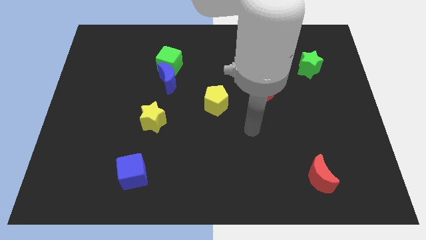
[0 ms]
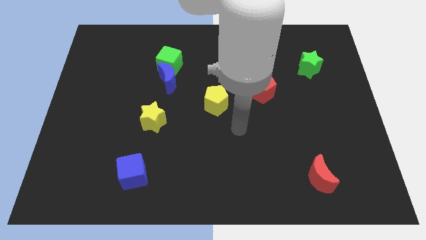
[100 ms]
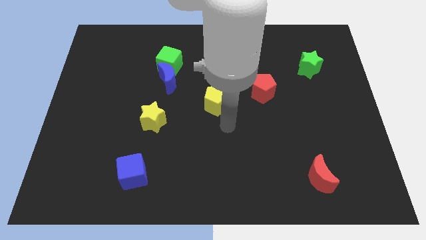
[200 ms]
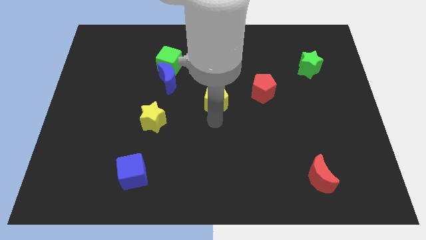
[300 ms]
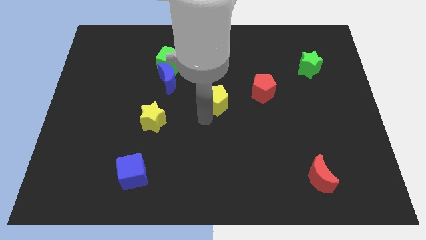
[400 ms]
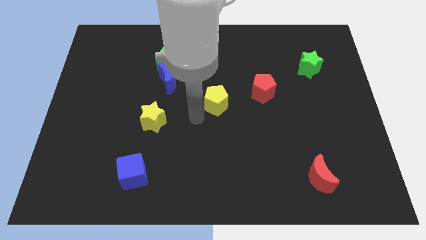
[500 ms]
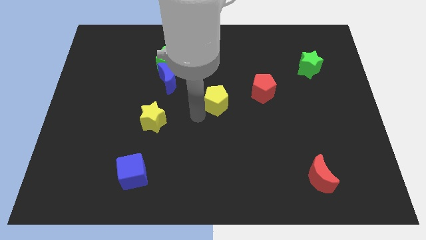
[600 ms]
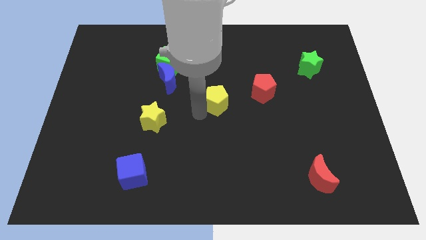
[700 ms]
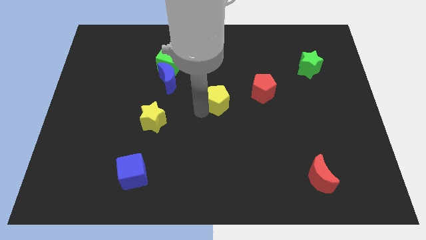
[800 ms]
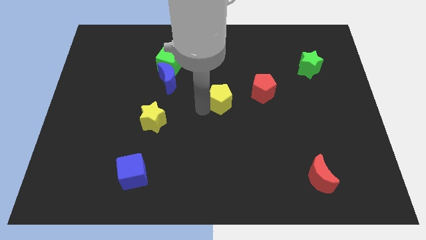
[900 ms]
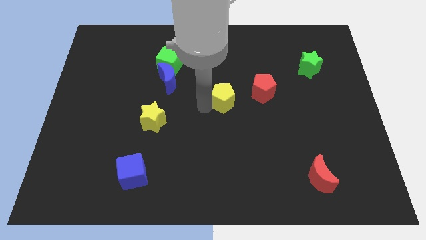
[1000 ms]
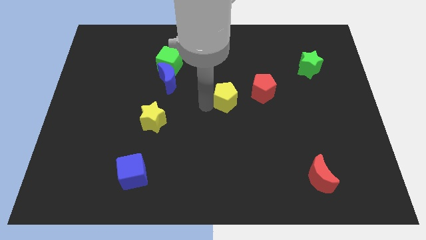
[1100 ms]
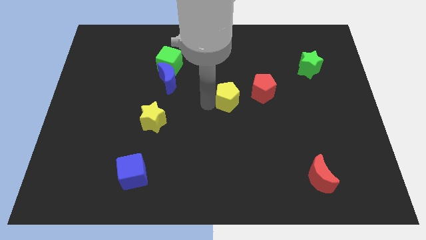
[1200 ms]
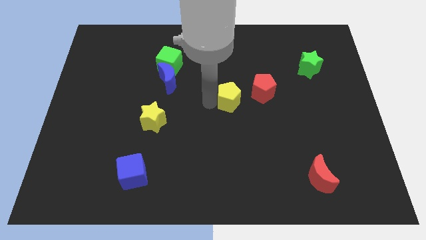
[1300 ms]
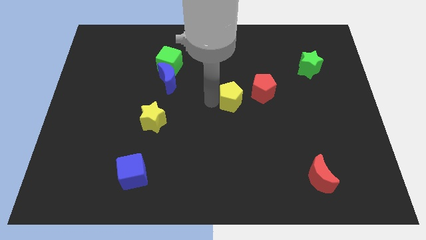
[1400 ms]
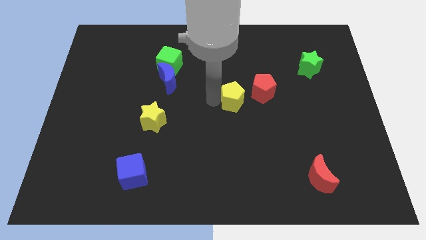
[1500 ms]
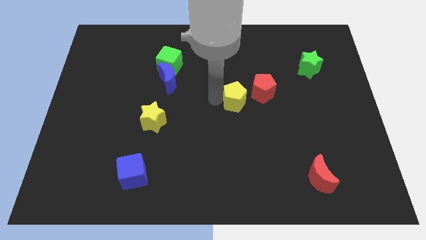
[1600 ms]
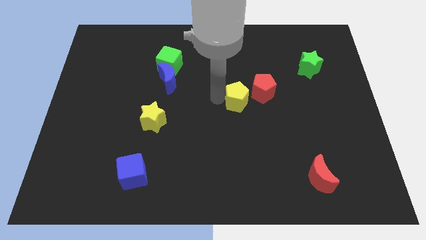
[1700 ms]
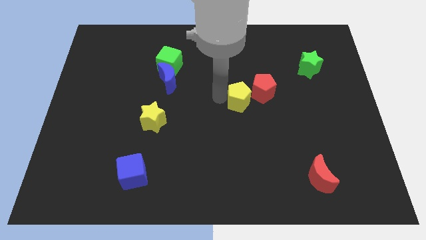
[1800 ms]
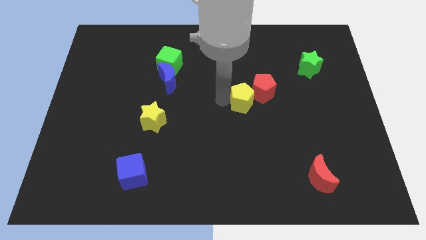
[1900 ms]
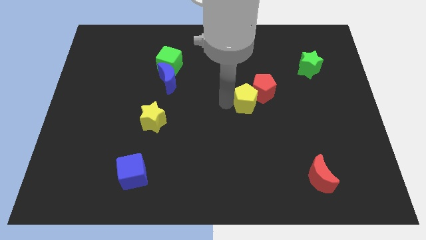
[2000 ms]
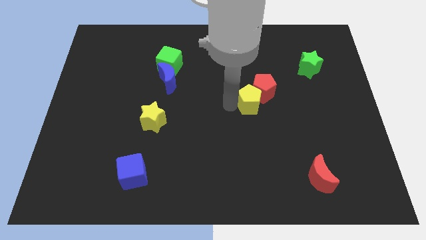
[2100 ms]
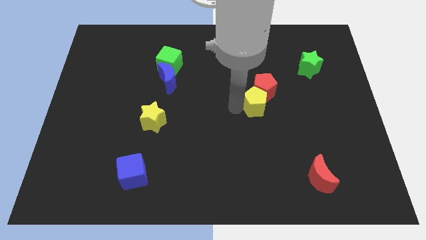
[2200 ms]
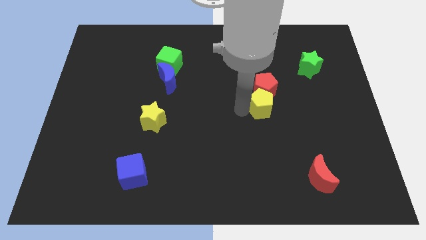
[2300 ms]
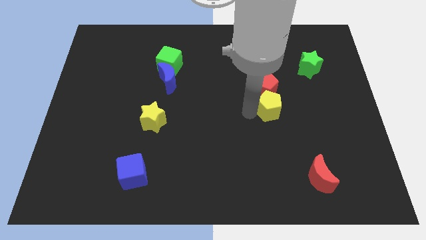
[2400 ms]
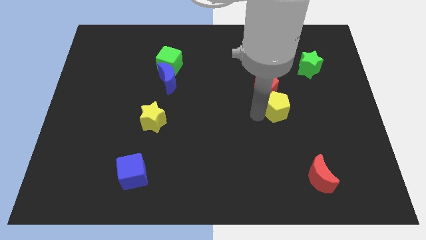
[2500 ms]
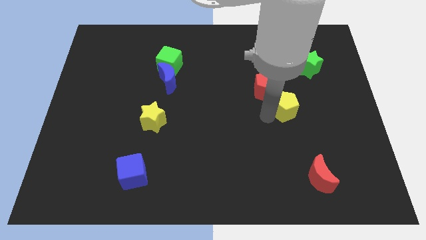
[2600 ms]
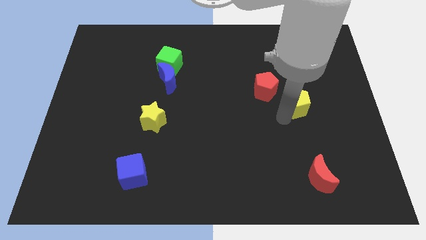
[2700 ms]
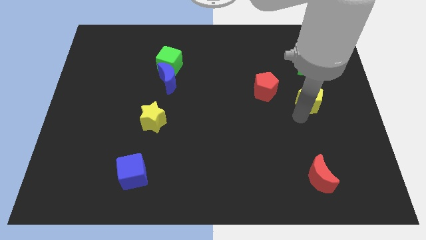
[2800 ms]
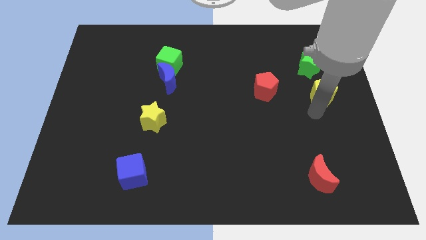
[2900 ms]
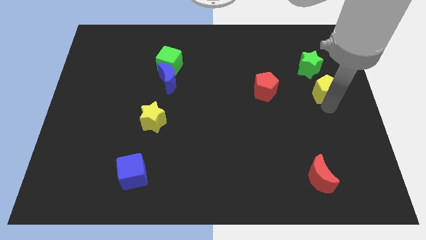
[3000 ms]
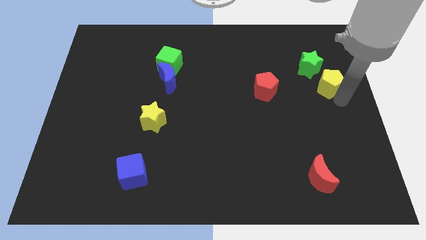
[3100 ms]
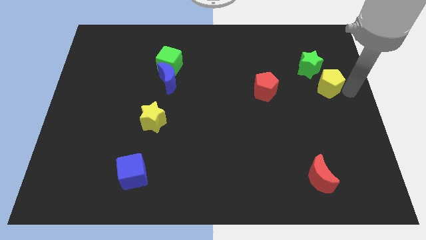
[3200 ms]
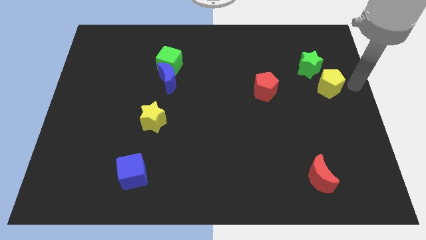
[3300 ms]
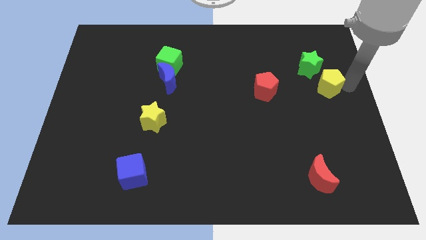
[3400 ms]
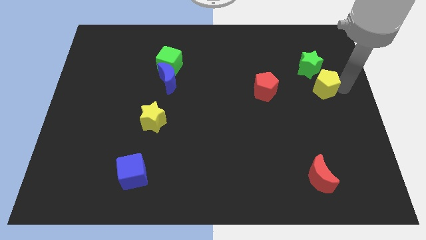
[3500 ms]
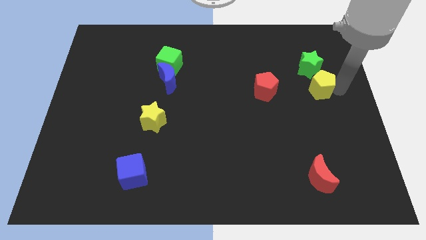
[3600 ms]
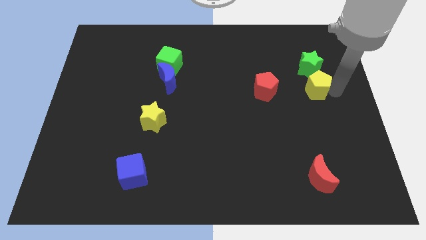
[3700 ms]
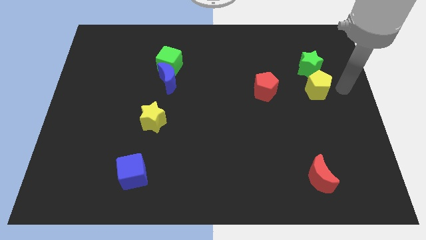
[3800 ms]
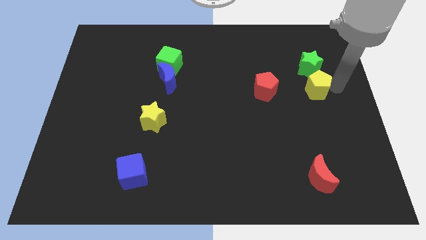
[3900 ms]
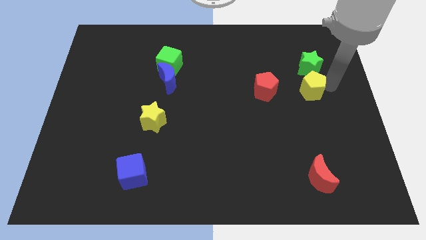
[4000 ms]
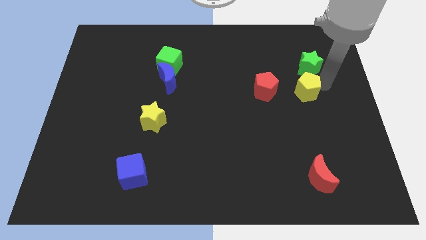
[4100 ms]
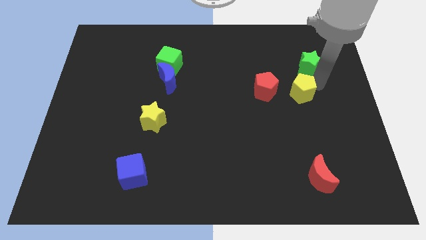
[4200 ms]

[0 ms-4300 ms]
move the yellow pentagon slightly up and right

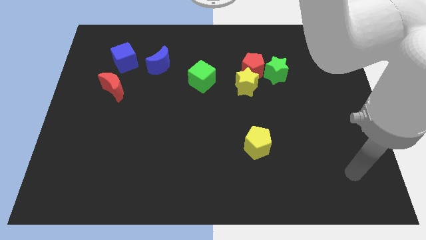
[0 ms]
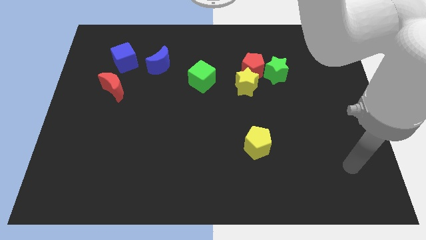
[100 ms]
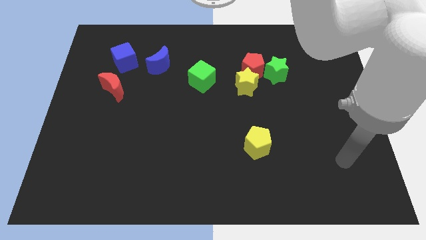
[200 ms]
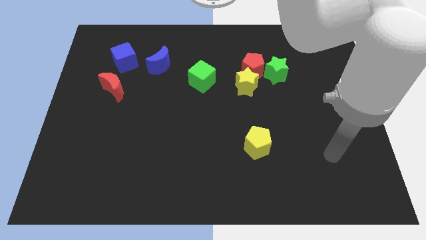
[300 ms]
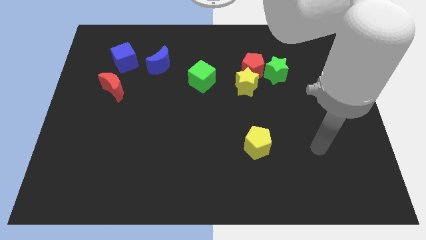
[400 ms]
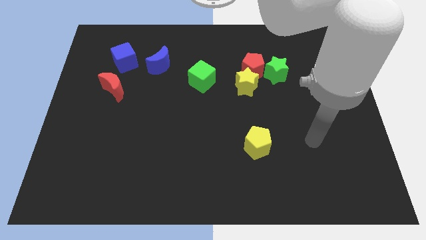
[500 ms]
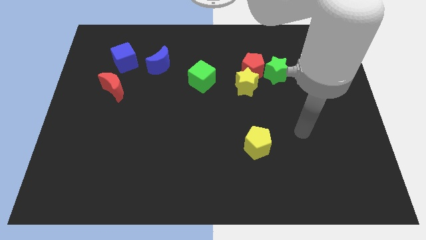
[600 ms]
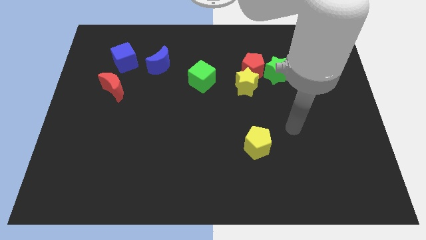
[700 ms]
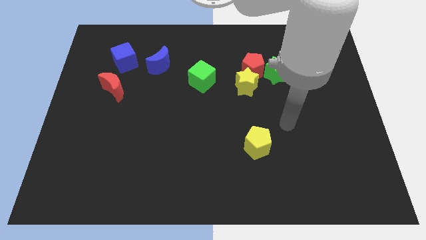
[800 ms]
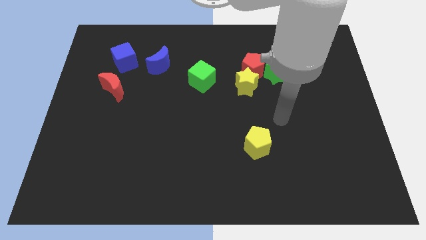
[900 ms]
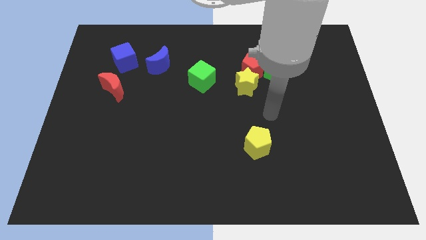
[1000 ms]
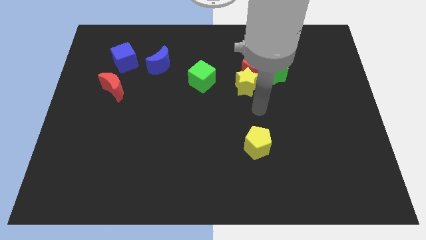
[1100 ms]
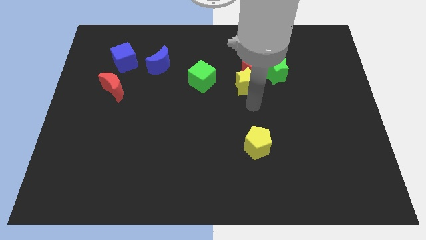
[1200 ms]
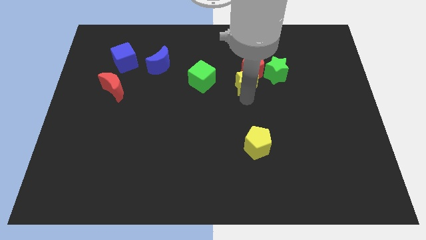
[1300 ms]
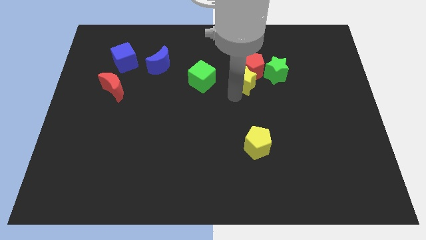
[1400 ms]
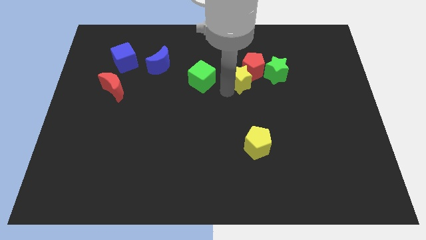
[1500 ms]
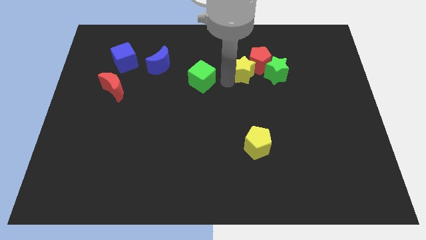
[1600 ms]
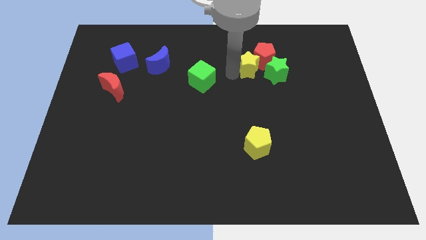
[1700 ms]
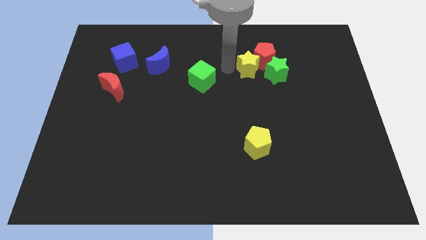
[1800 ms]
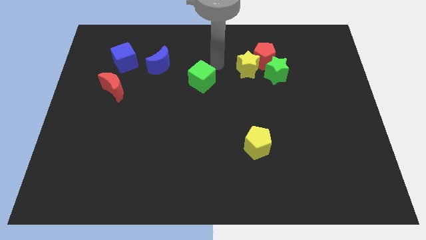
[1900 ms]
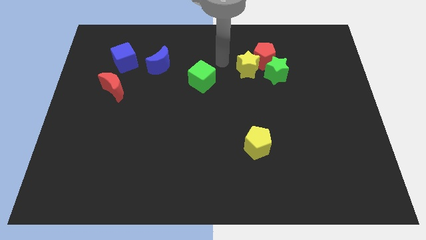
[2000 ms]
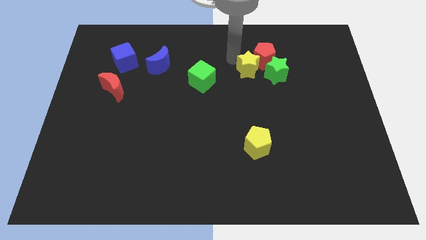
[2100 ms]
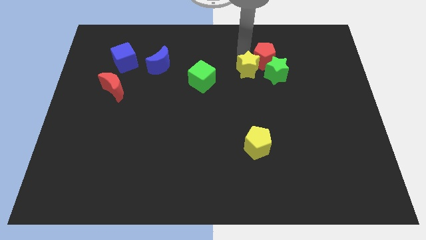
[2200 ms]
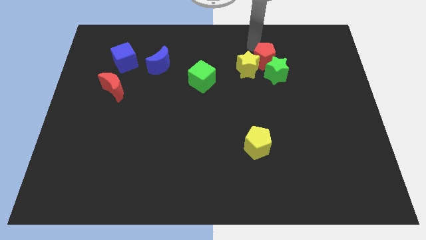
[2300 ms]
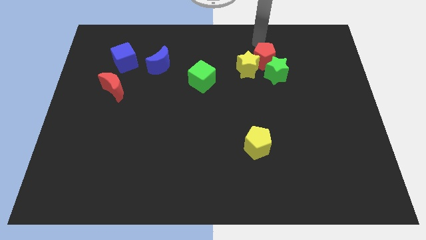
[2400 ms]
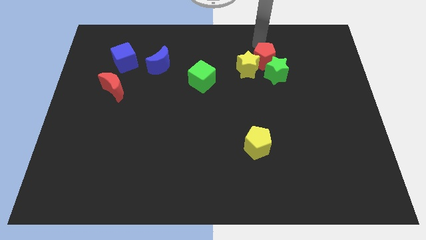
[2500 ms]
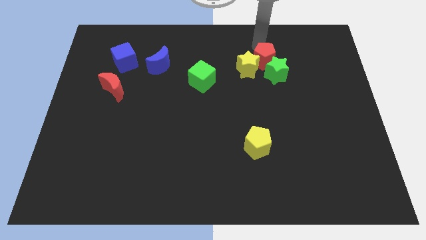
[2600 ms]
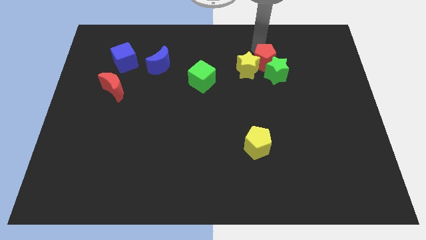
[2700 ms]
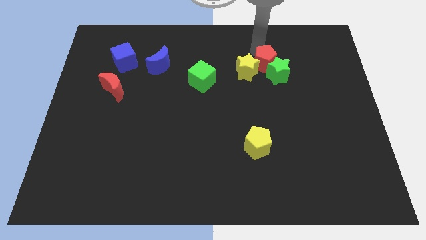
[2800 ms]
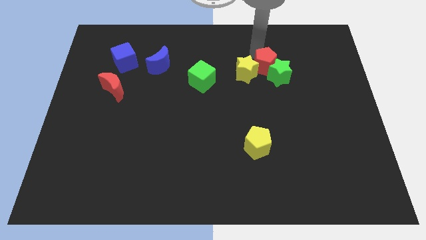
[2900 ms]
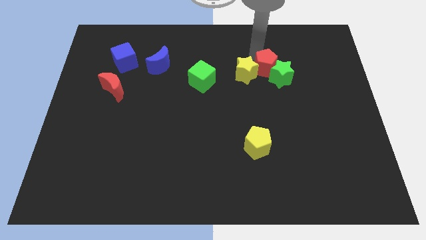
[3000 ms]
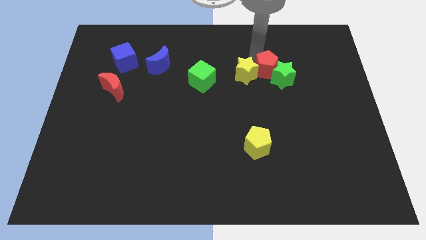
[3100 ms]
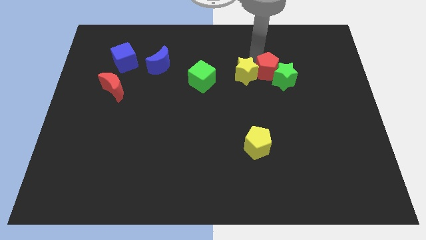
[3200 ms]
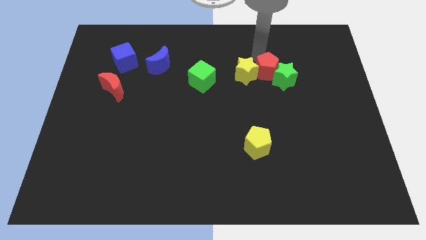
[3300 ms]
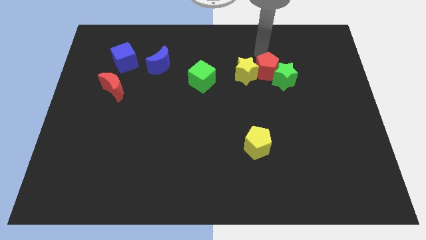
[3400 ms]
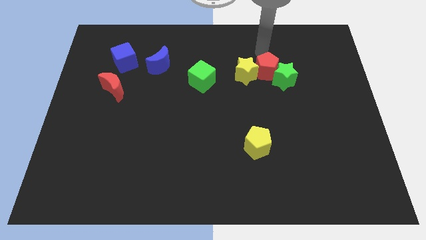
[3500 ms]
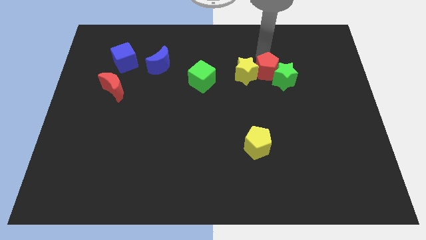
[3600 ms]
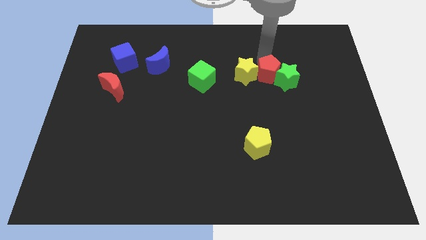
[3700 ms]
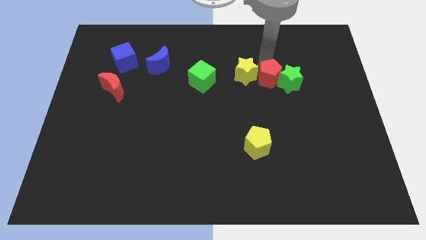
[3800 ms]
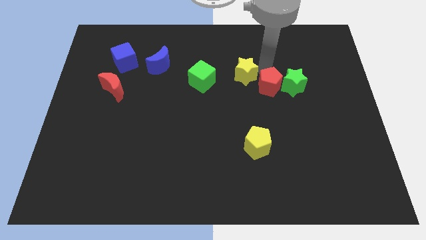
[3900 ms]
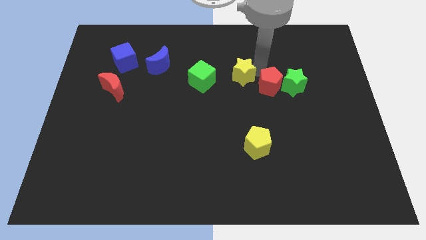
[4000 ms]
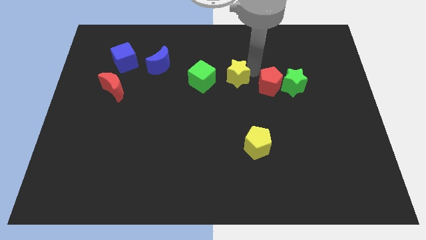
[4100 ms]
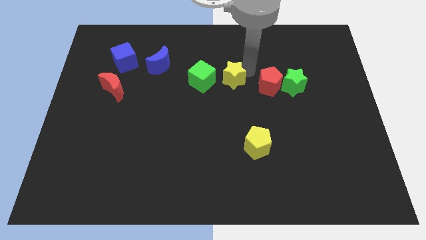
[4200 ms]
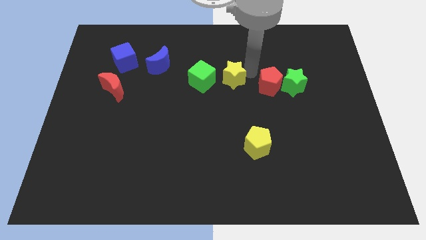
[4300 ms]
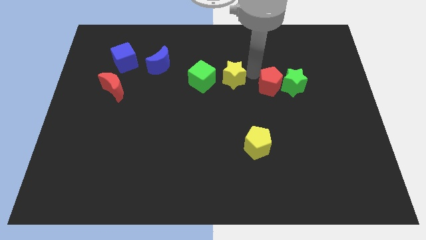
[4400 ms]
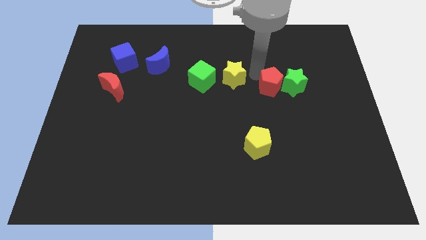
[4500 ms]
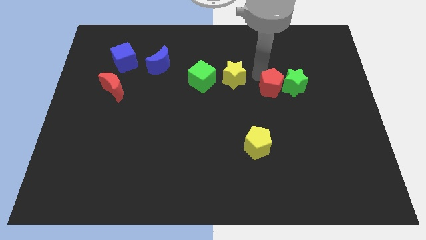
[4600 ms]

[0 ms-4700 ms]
push the red pentagon diagonally downwards and to the right a little
